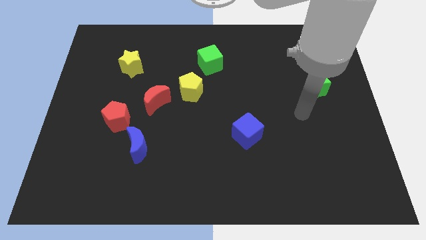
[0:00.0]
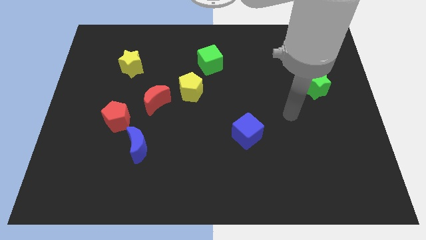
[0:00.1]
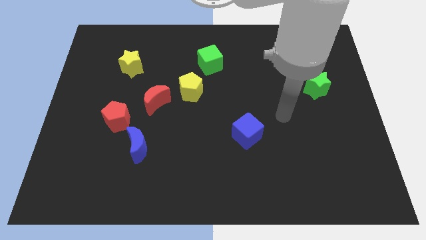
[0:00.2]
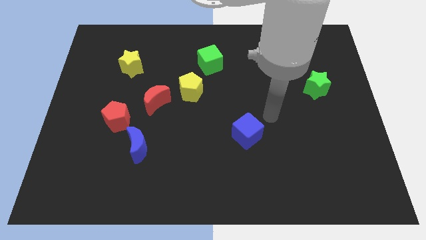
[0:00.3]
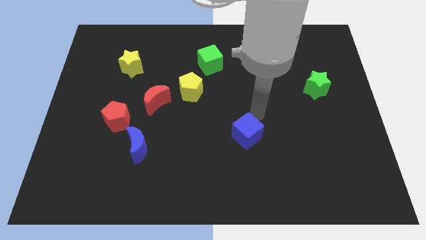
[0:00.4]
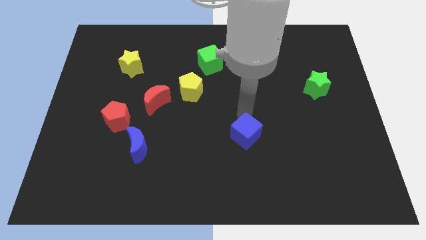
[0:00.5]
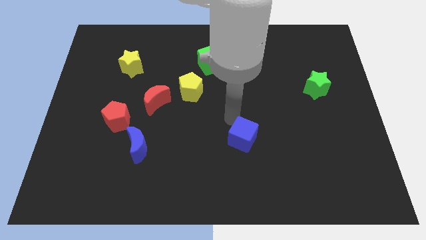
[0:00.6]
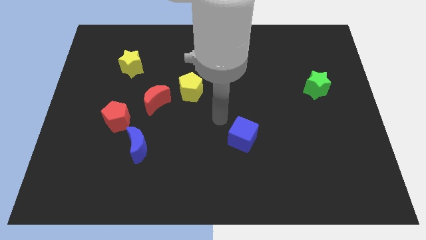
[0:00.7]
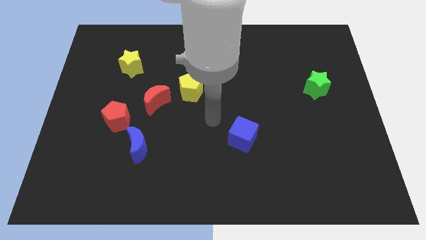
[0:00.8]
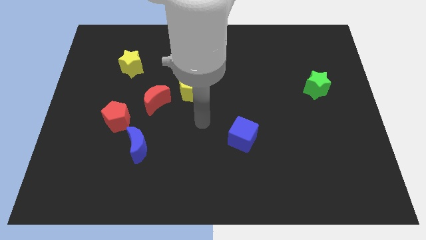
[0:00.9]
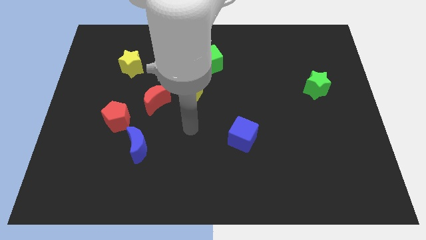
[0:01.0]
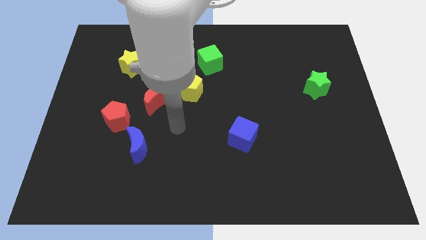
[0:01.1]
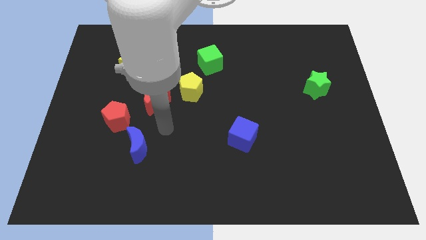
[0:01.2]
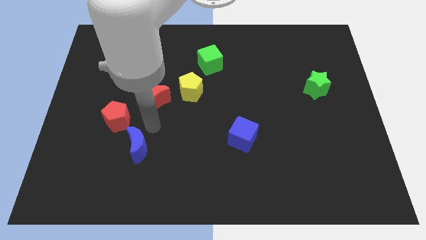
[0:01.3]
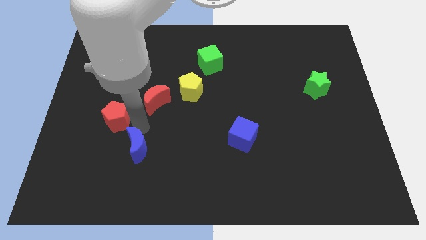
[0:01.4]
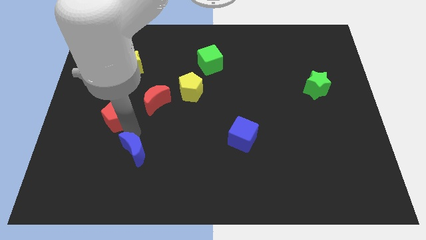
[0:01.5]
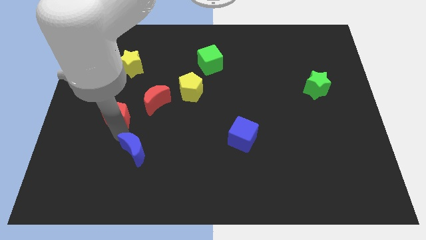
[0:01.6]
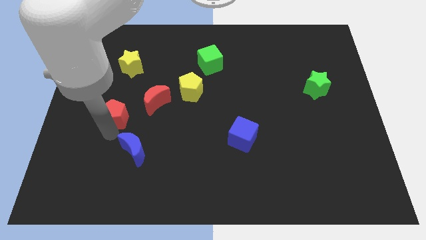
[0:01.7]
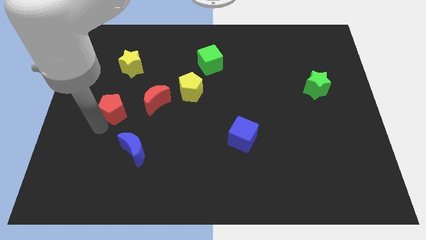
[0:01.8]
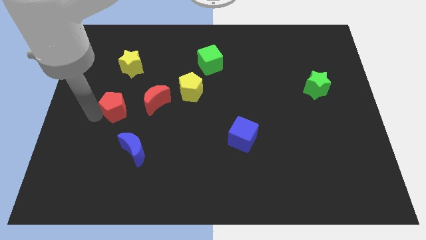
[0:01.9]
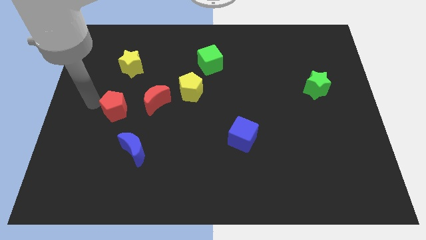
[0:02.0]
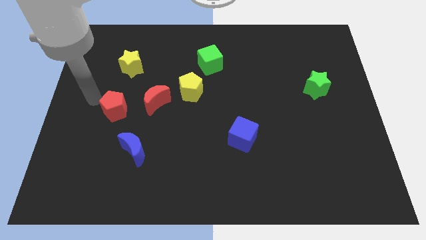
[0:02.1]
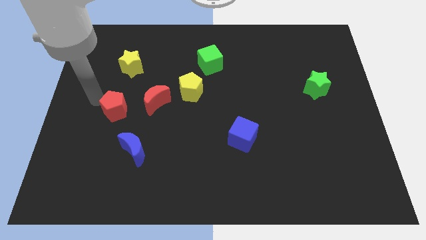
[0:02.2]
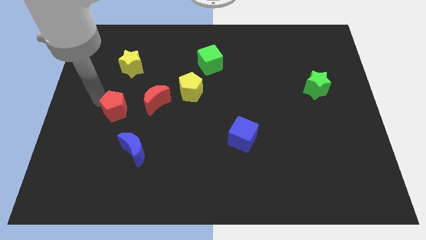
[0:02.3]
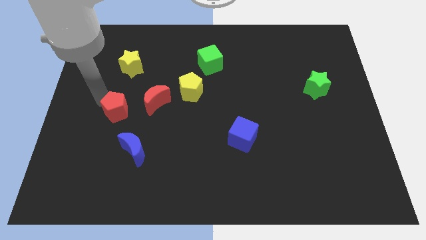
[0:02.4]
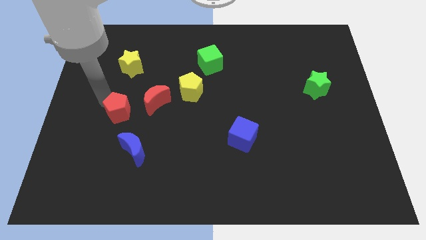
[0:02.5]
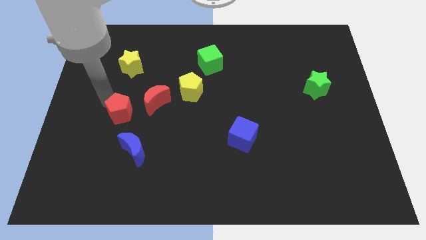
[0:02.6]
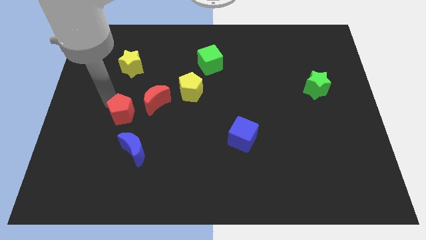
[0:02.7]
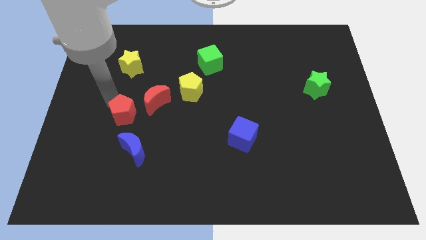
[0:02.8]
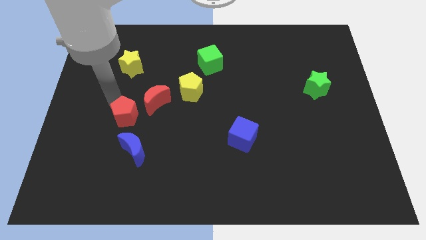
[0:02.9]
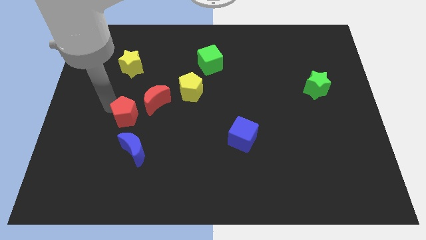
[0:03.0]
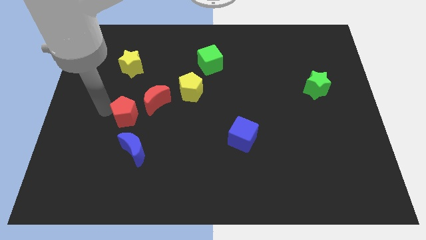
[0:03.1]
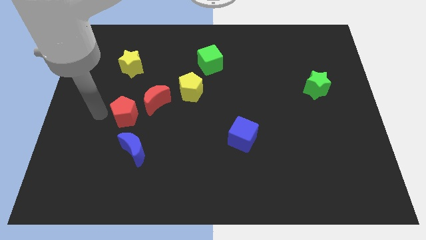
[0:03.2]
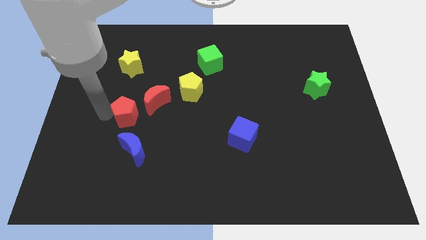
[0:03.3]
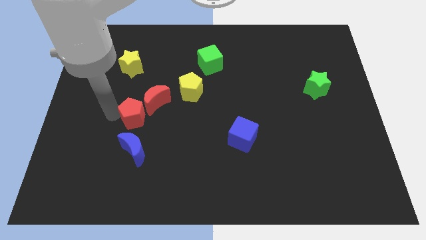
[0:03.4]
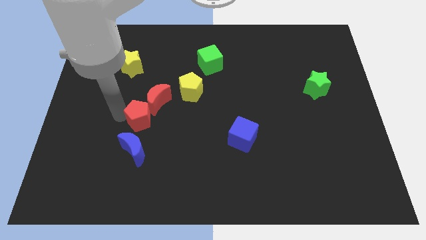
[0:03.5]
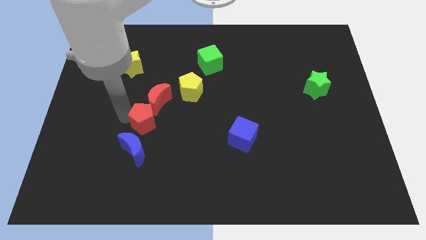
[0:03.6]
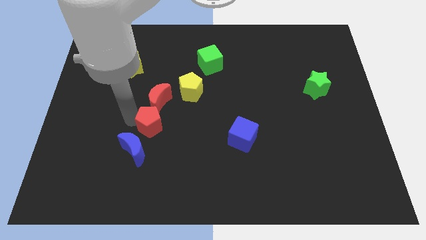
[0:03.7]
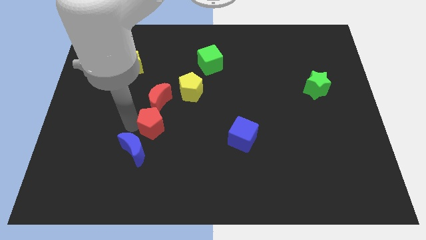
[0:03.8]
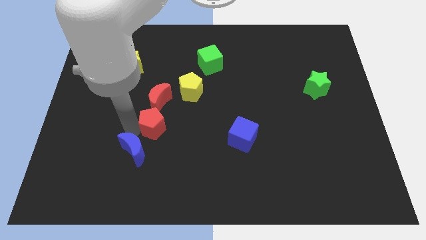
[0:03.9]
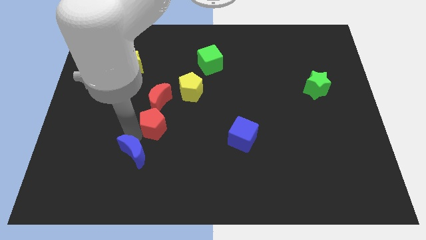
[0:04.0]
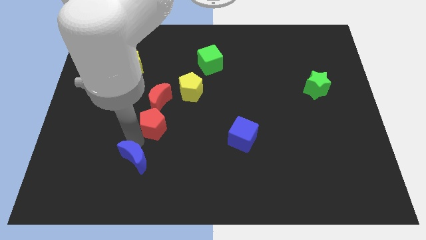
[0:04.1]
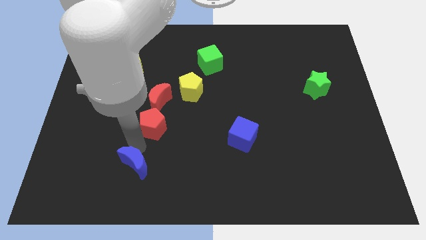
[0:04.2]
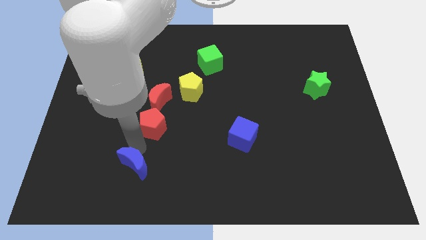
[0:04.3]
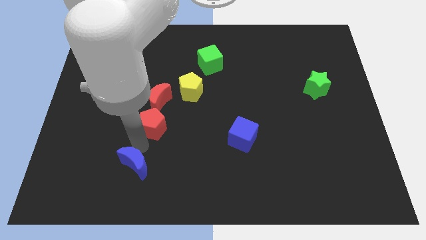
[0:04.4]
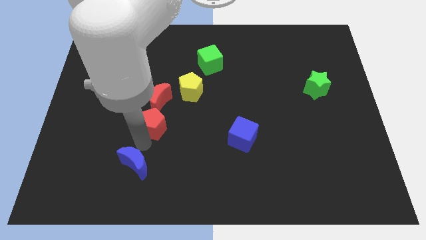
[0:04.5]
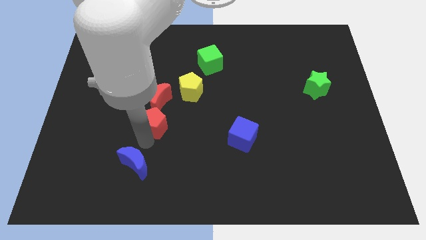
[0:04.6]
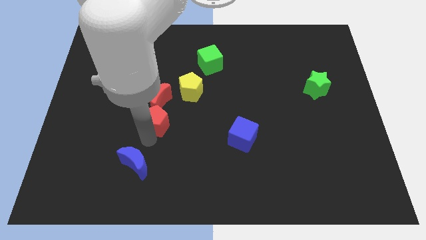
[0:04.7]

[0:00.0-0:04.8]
move the red pentagon diagonally down and to the left of the yellow pentagon

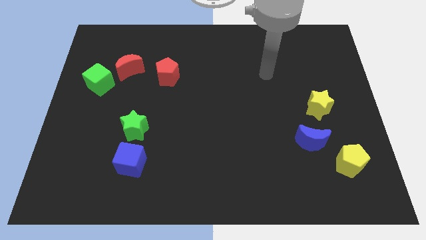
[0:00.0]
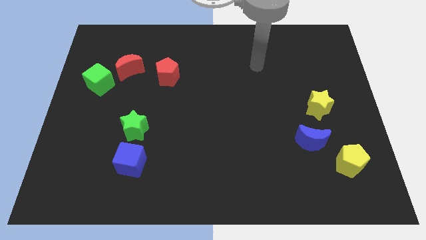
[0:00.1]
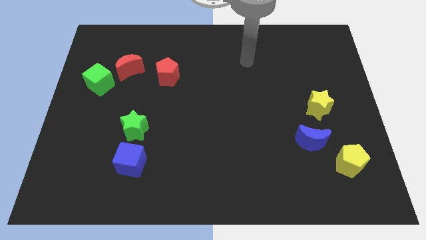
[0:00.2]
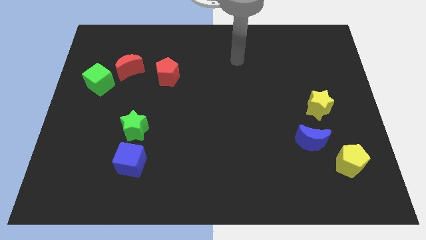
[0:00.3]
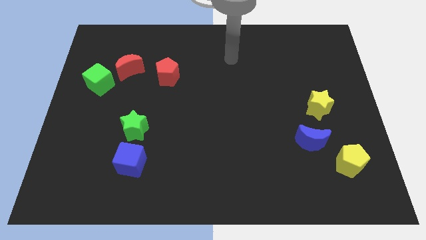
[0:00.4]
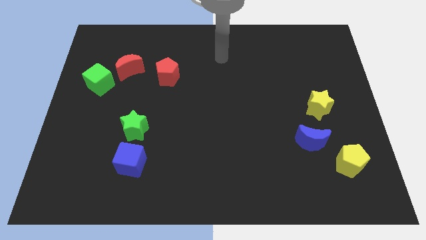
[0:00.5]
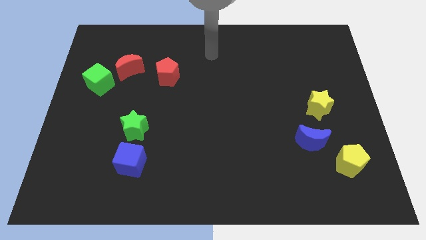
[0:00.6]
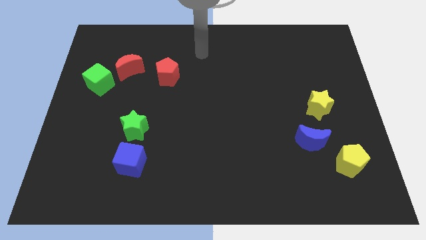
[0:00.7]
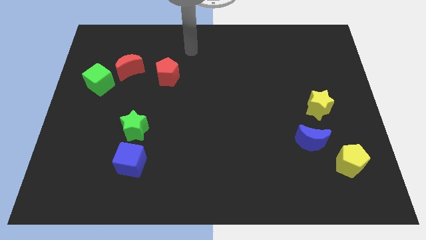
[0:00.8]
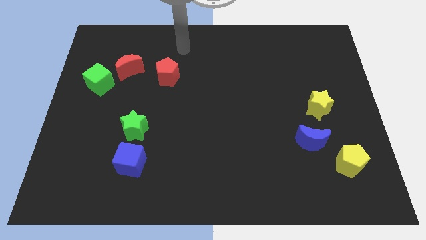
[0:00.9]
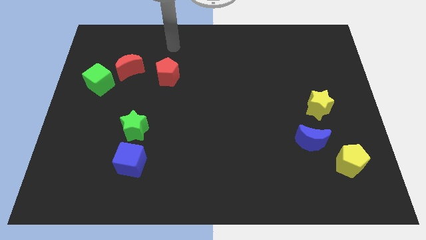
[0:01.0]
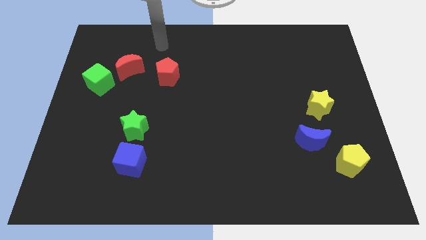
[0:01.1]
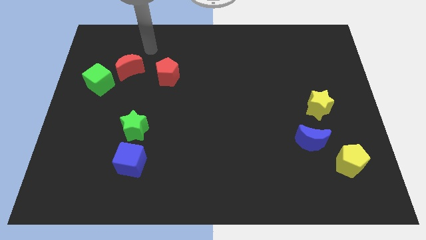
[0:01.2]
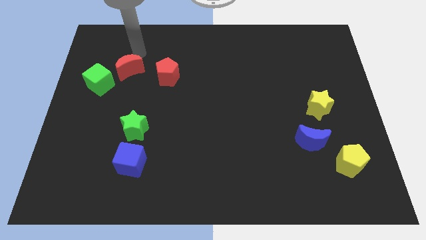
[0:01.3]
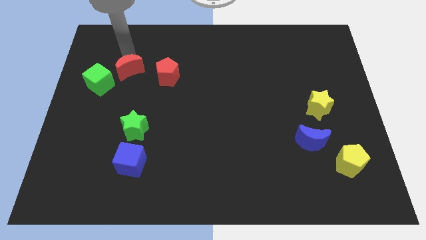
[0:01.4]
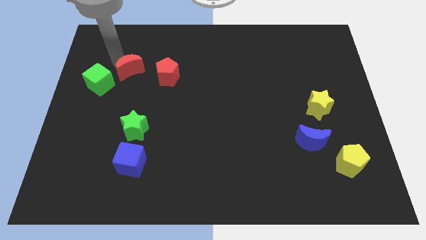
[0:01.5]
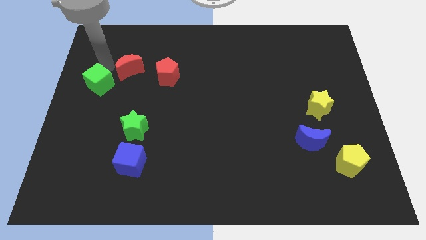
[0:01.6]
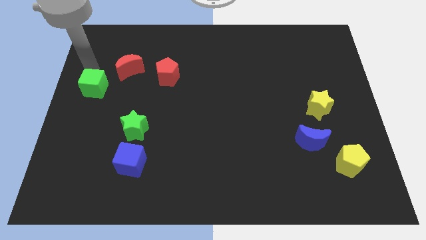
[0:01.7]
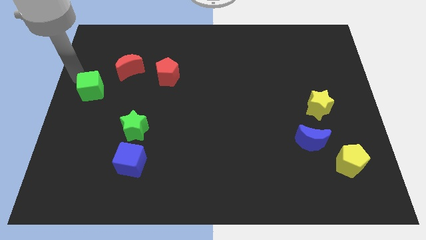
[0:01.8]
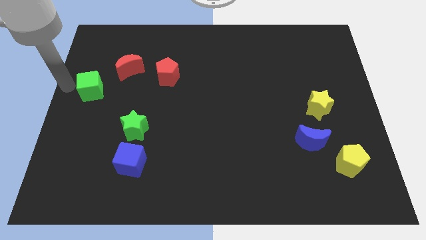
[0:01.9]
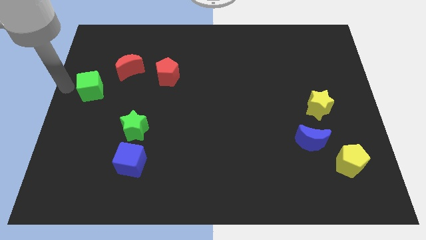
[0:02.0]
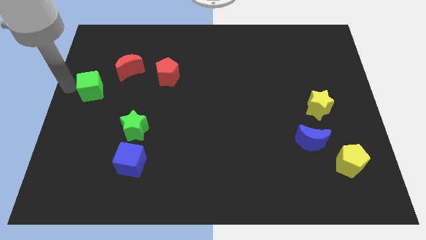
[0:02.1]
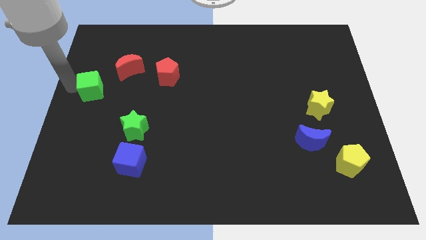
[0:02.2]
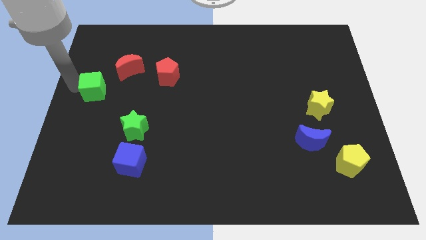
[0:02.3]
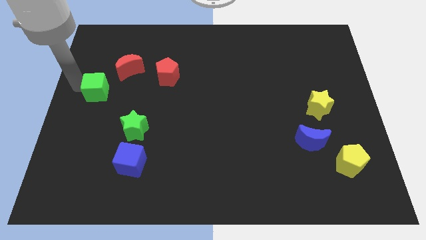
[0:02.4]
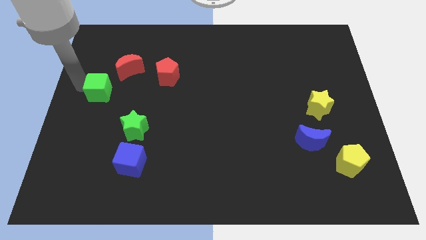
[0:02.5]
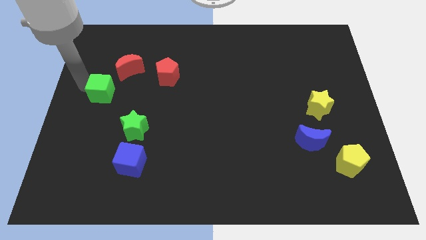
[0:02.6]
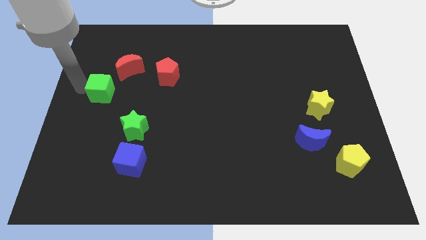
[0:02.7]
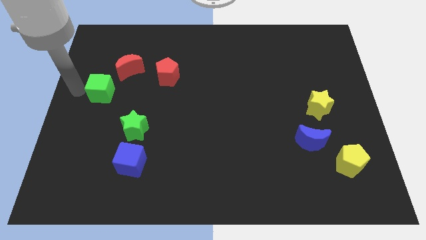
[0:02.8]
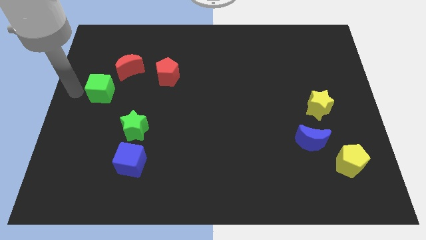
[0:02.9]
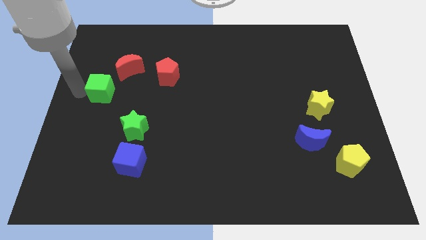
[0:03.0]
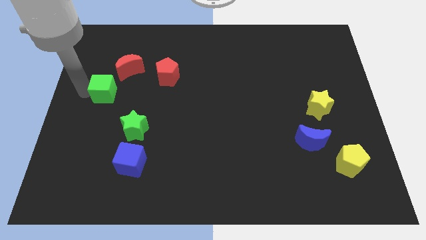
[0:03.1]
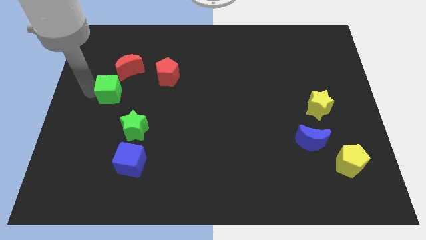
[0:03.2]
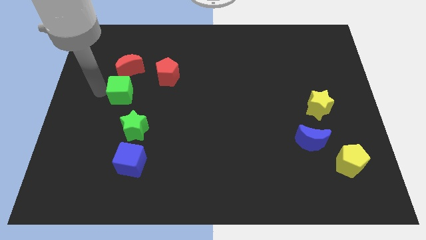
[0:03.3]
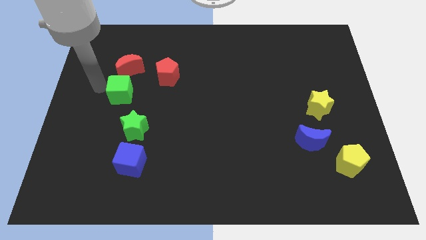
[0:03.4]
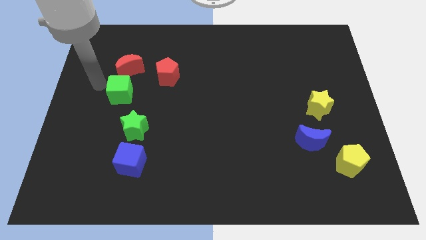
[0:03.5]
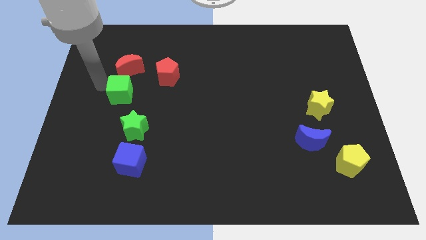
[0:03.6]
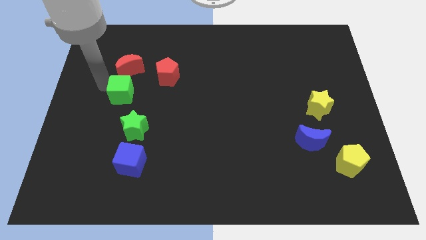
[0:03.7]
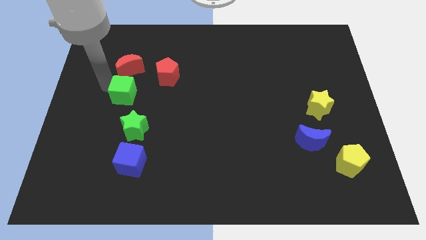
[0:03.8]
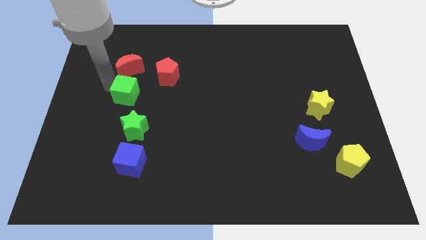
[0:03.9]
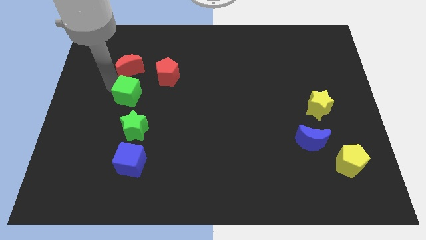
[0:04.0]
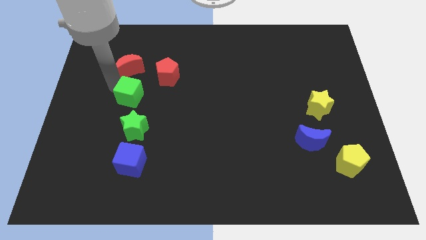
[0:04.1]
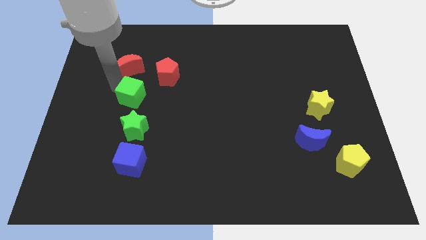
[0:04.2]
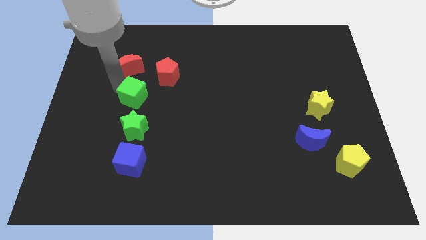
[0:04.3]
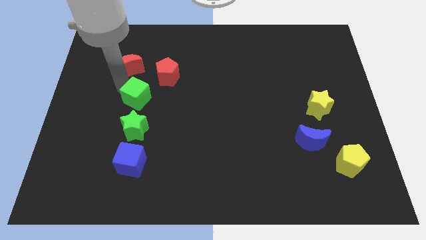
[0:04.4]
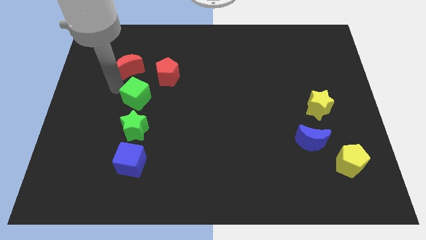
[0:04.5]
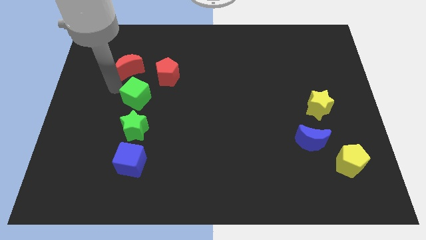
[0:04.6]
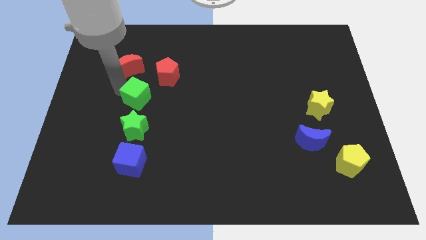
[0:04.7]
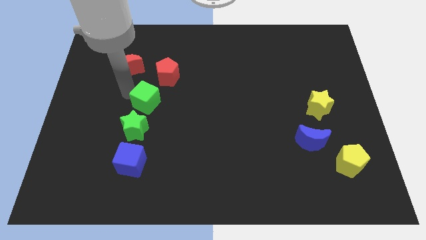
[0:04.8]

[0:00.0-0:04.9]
push the green cube below the red pentagon
